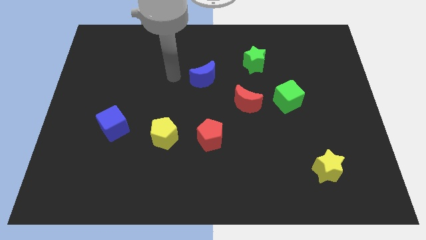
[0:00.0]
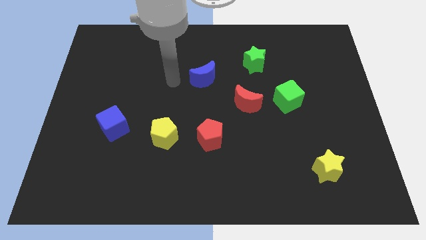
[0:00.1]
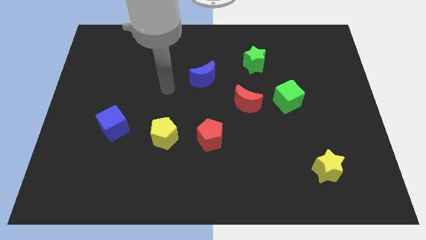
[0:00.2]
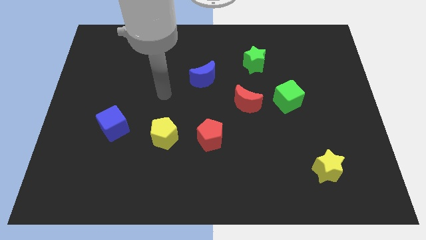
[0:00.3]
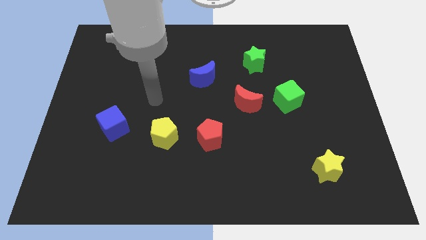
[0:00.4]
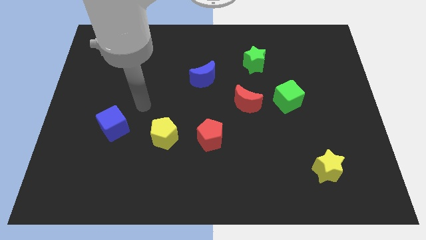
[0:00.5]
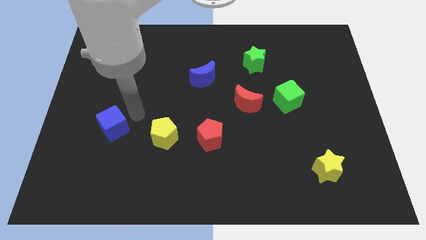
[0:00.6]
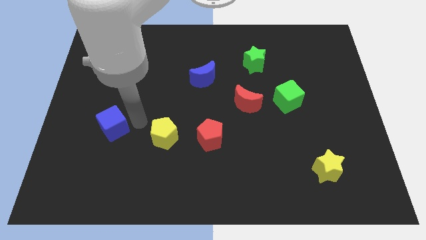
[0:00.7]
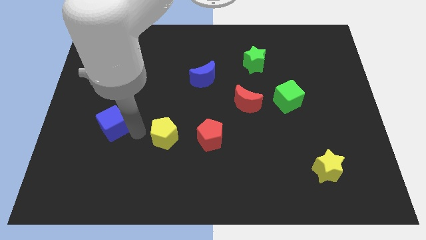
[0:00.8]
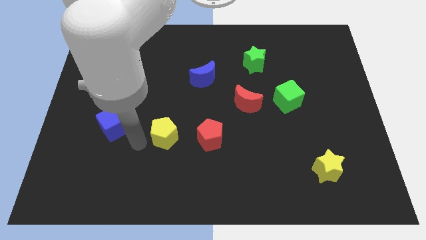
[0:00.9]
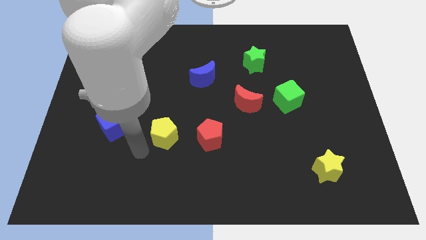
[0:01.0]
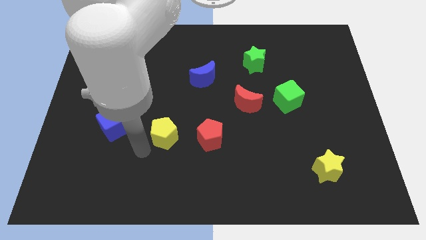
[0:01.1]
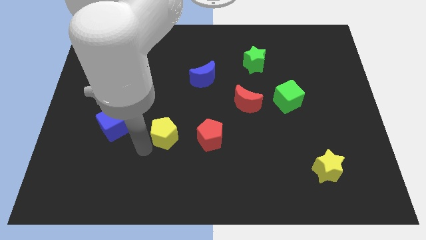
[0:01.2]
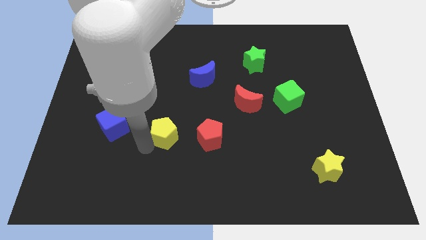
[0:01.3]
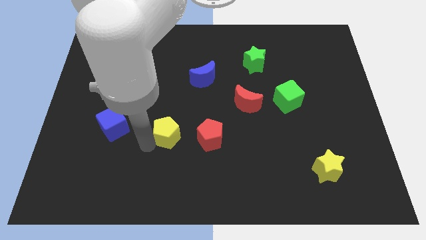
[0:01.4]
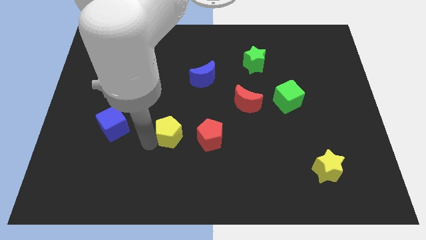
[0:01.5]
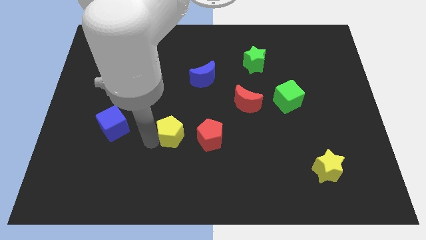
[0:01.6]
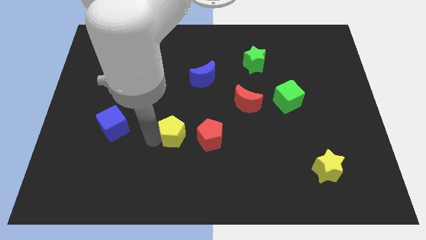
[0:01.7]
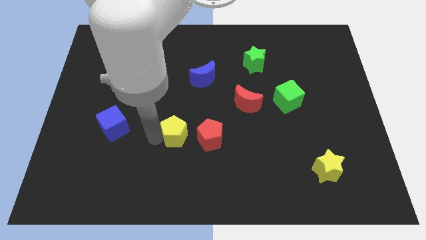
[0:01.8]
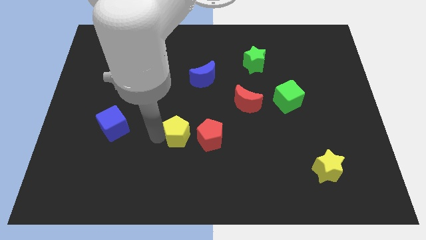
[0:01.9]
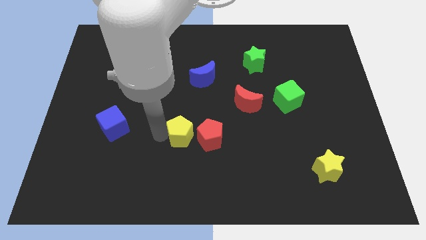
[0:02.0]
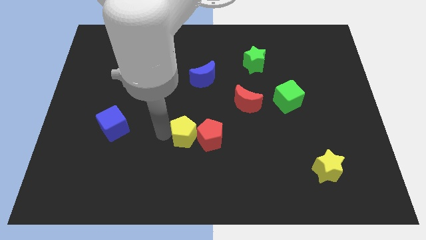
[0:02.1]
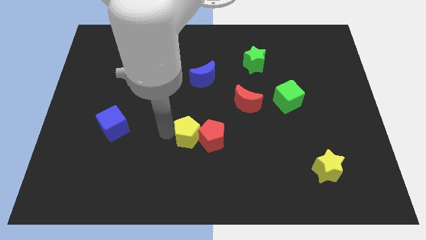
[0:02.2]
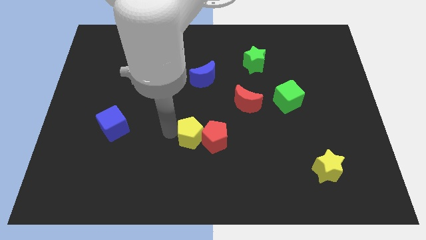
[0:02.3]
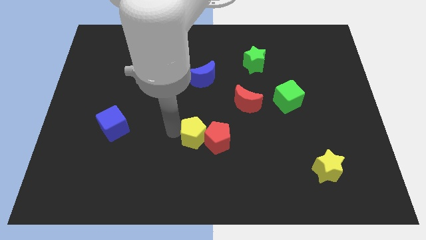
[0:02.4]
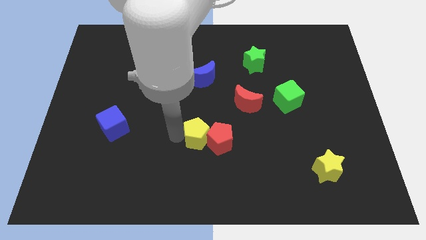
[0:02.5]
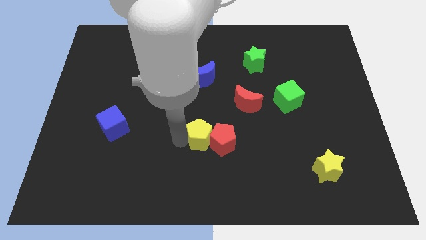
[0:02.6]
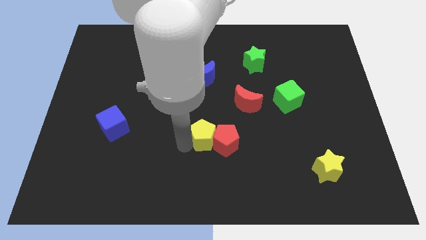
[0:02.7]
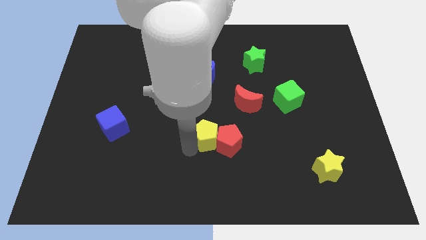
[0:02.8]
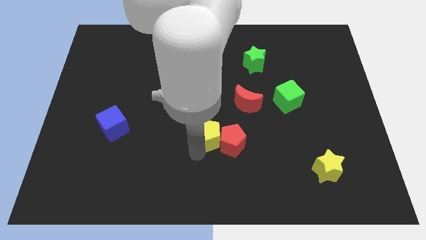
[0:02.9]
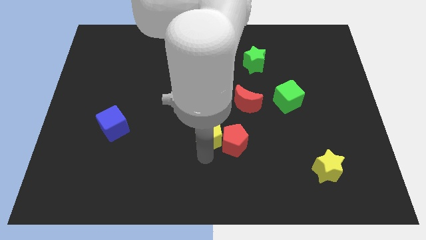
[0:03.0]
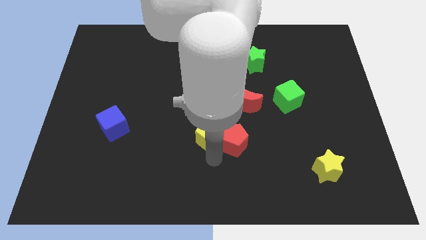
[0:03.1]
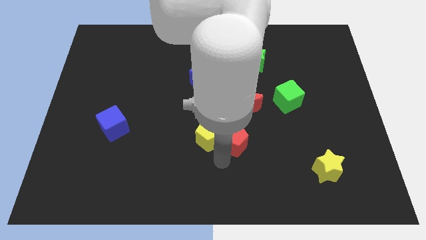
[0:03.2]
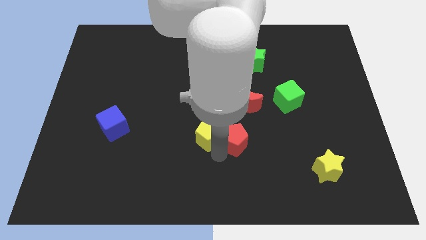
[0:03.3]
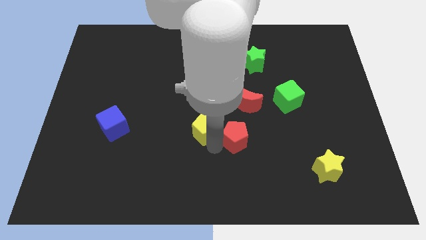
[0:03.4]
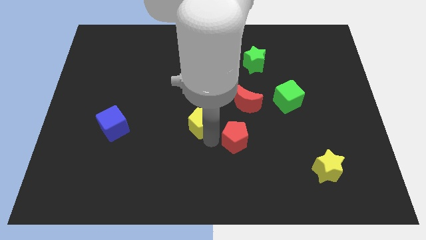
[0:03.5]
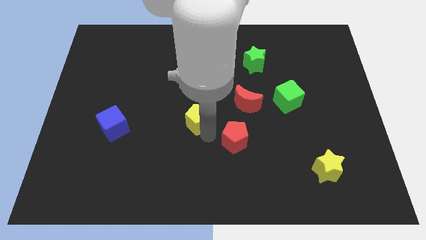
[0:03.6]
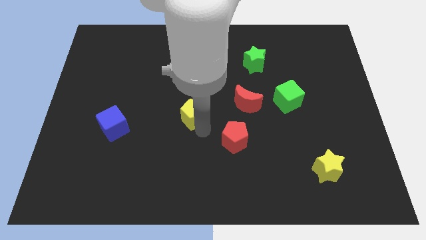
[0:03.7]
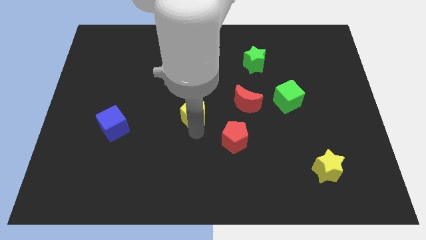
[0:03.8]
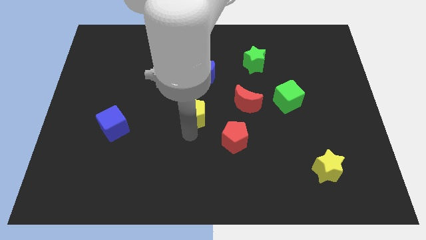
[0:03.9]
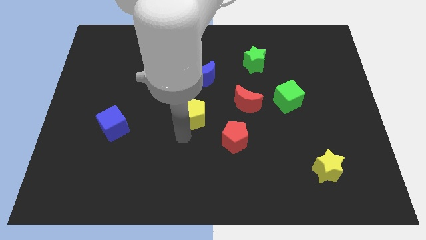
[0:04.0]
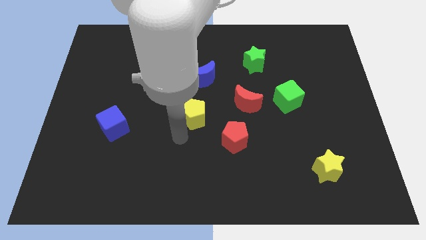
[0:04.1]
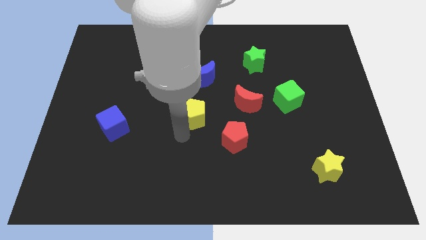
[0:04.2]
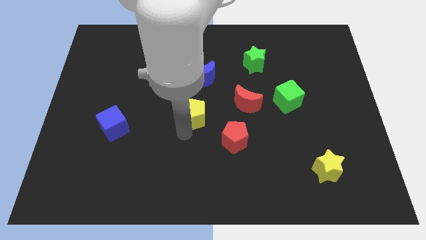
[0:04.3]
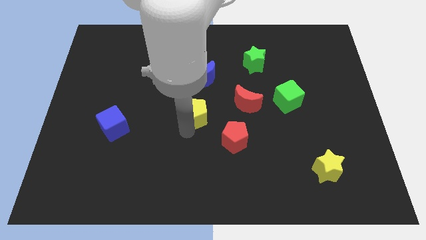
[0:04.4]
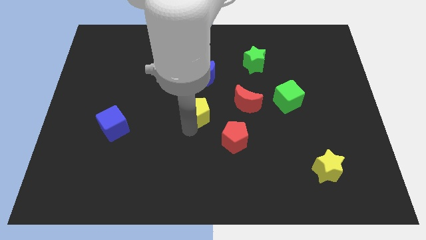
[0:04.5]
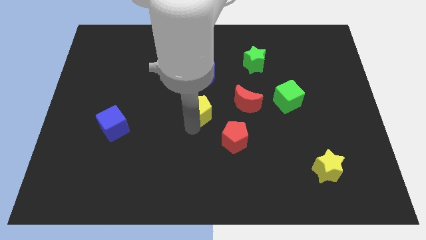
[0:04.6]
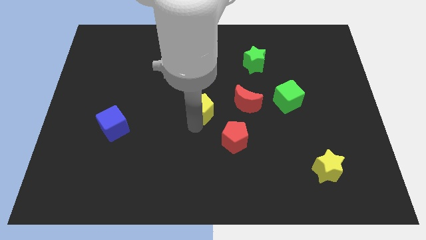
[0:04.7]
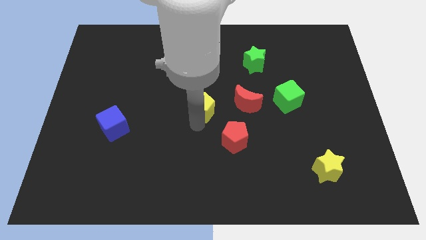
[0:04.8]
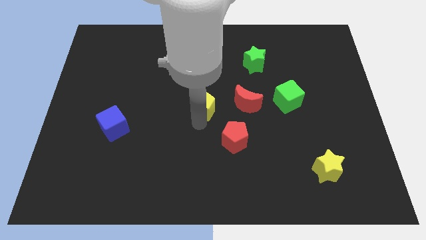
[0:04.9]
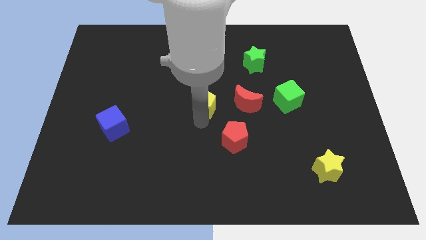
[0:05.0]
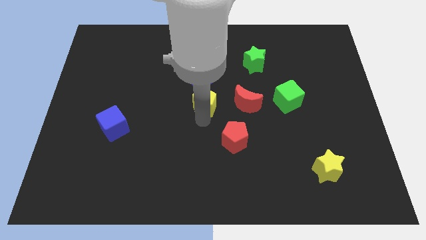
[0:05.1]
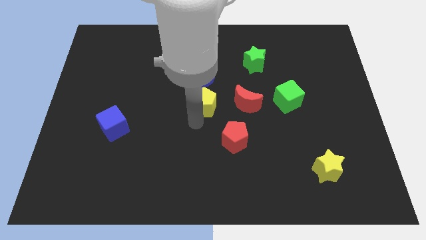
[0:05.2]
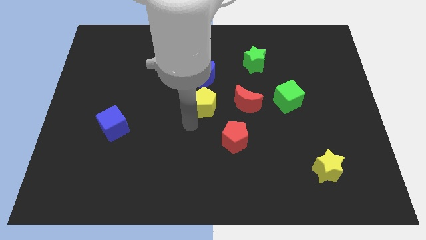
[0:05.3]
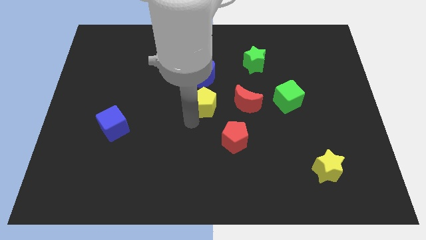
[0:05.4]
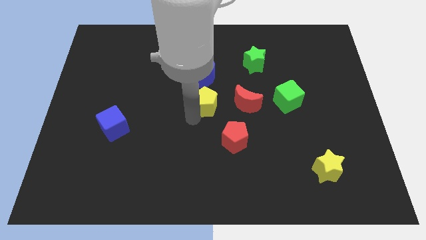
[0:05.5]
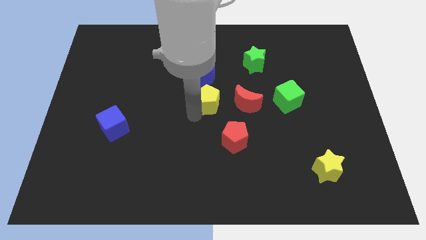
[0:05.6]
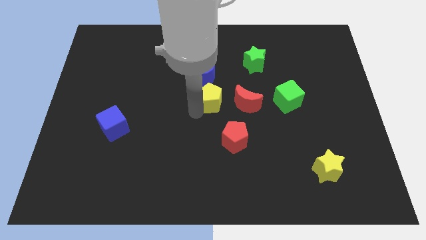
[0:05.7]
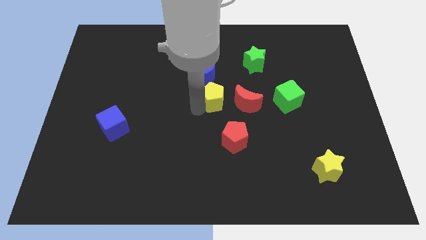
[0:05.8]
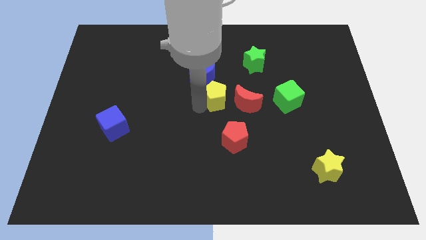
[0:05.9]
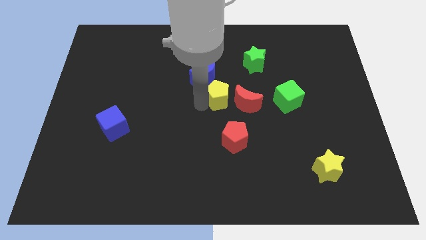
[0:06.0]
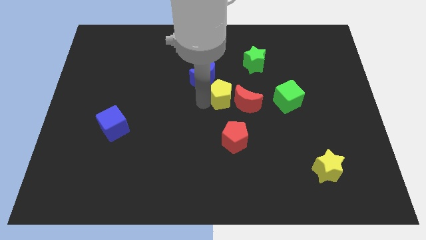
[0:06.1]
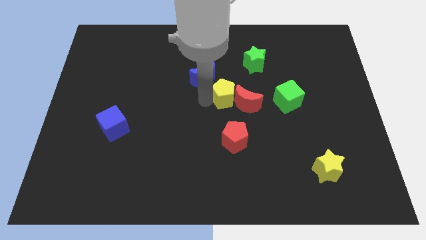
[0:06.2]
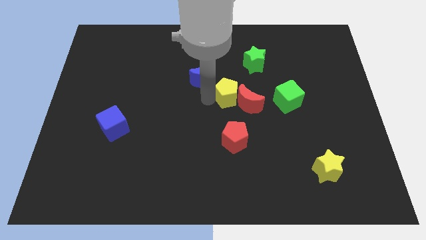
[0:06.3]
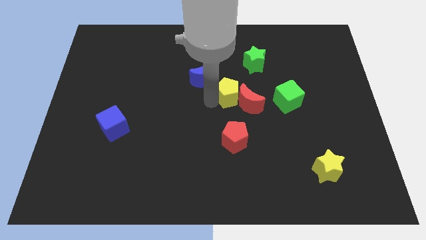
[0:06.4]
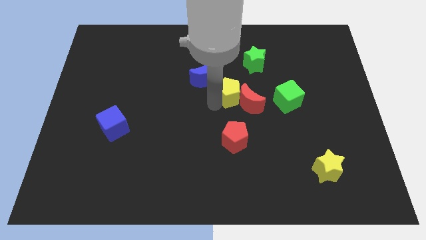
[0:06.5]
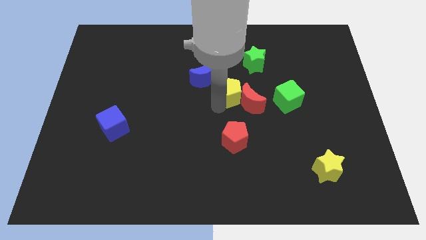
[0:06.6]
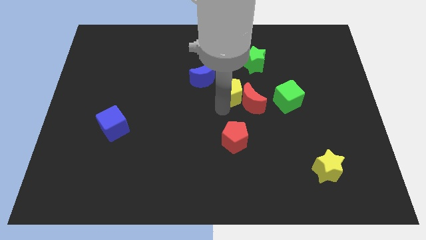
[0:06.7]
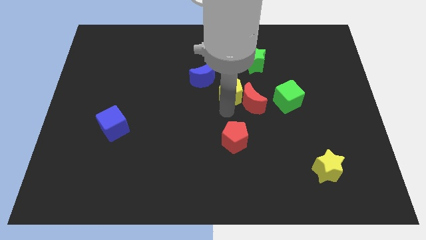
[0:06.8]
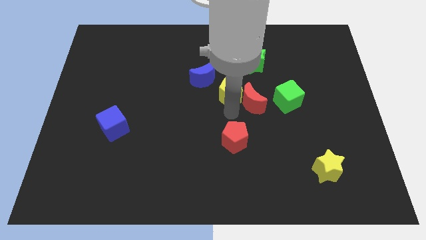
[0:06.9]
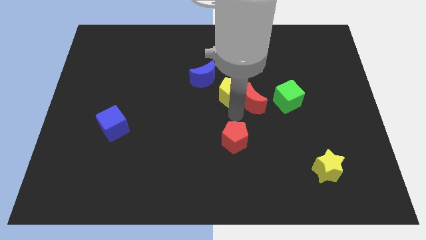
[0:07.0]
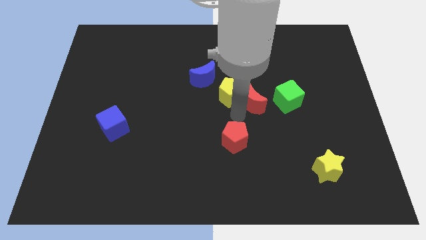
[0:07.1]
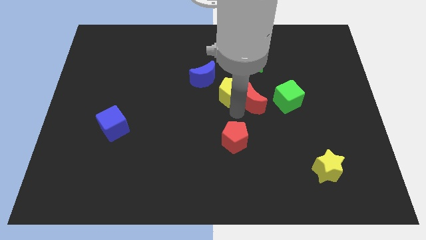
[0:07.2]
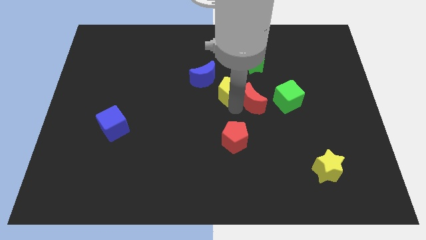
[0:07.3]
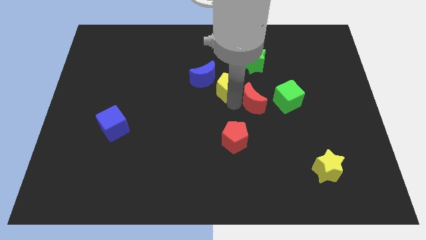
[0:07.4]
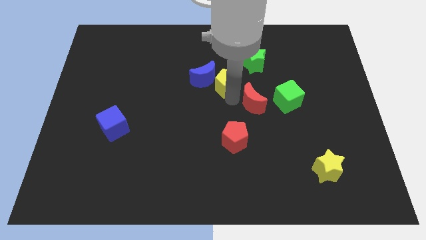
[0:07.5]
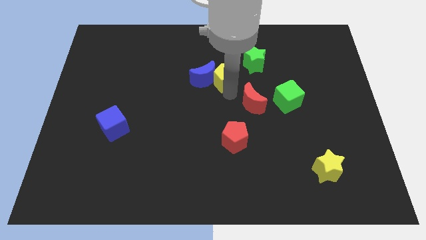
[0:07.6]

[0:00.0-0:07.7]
push the yellow pentagon to the top right of the blue moon
